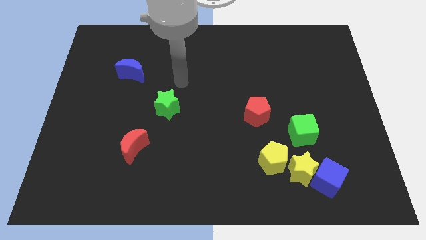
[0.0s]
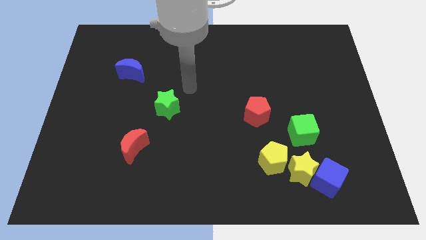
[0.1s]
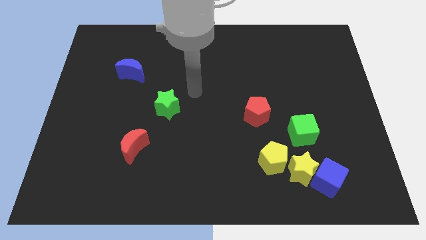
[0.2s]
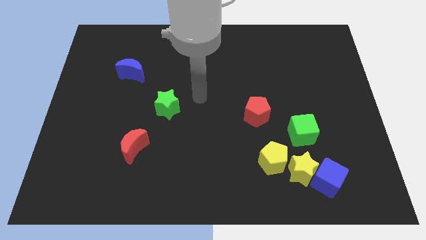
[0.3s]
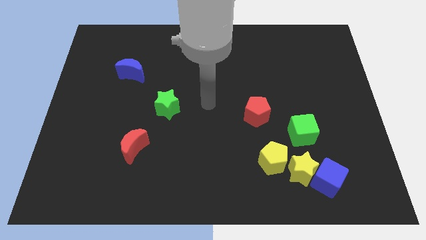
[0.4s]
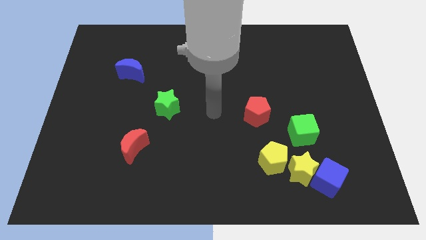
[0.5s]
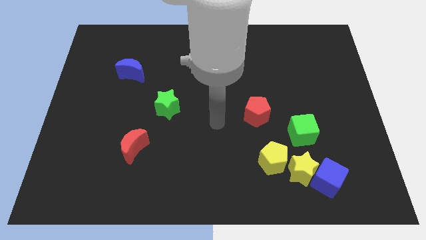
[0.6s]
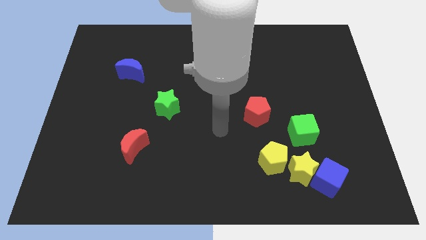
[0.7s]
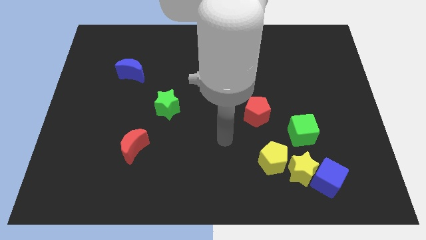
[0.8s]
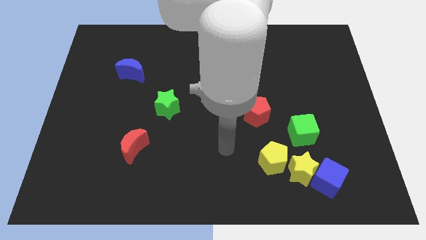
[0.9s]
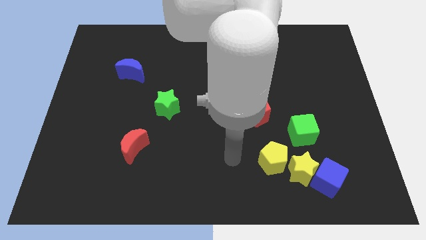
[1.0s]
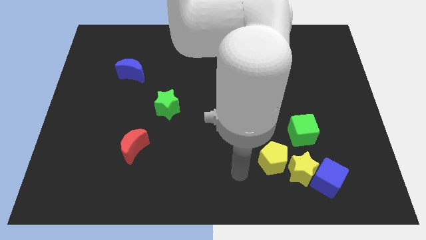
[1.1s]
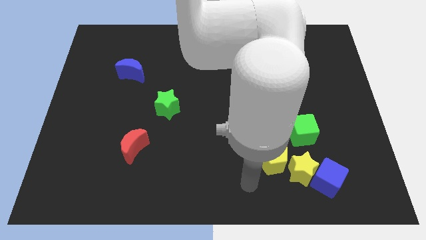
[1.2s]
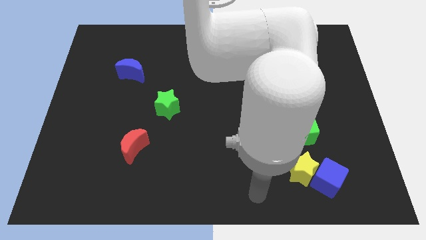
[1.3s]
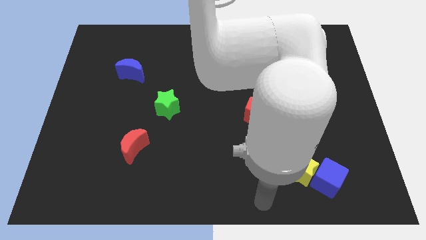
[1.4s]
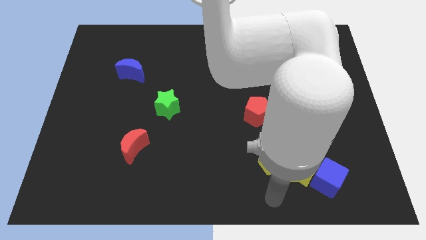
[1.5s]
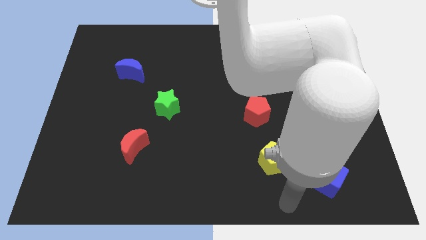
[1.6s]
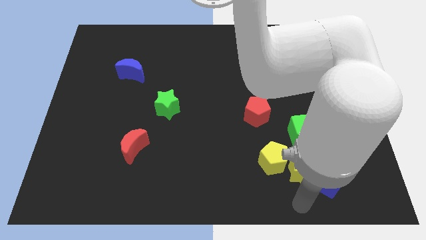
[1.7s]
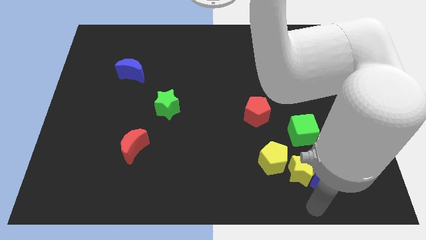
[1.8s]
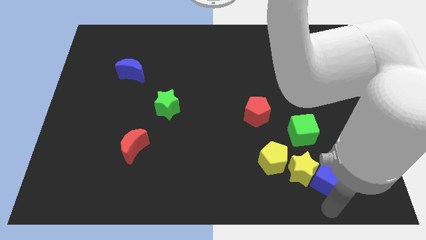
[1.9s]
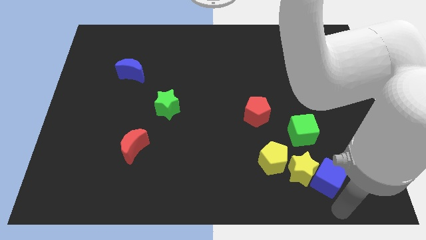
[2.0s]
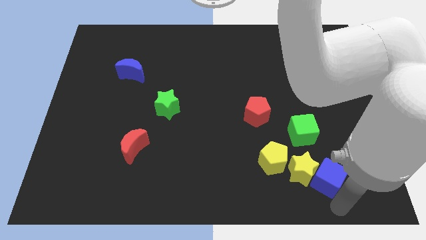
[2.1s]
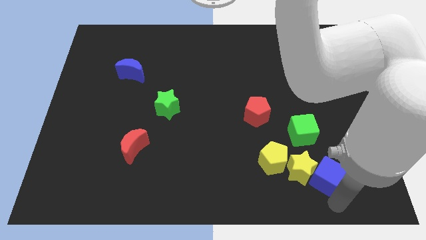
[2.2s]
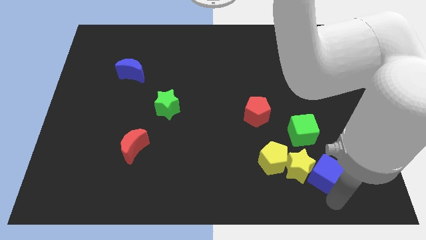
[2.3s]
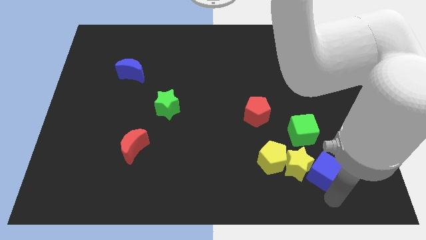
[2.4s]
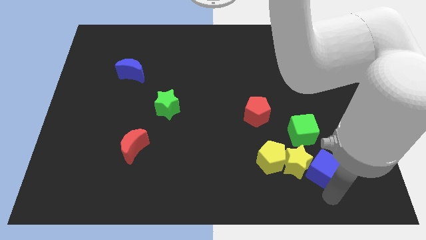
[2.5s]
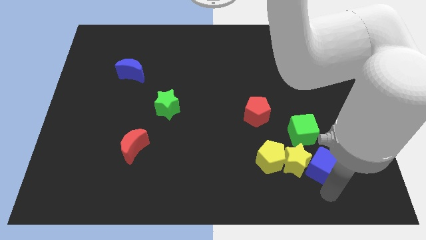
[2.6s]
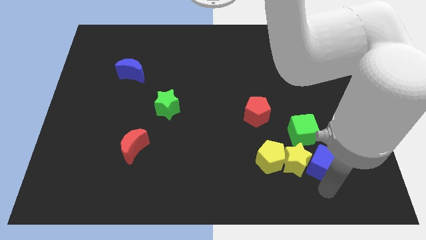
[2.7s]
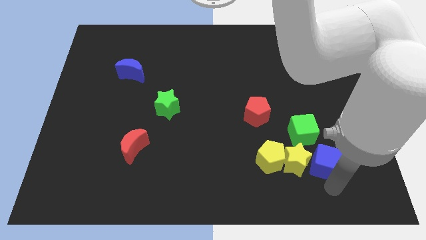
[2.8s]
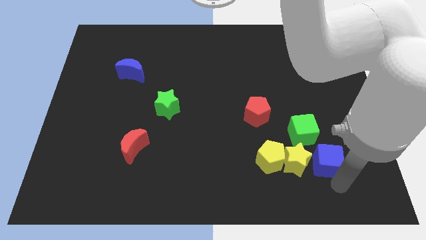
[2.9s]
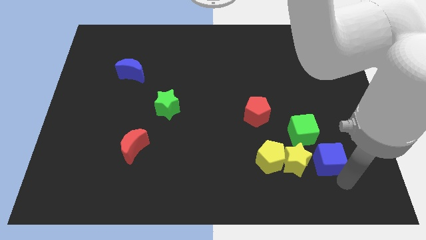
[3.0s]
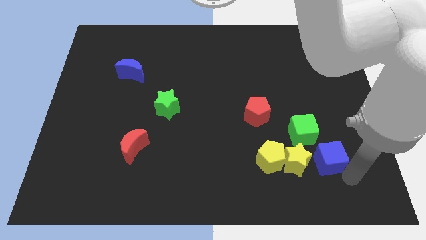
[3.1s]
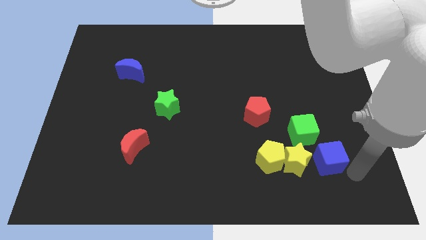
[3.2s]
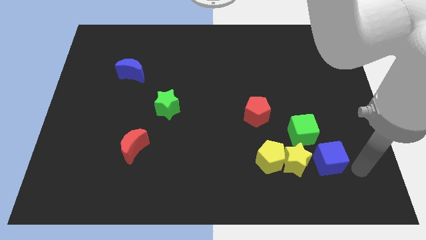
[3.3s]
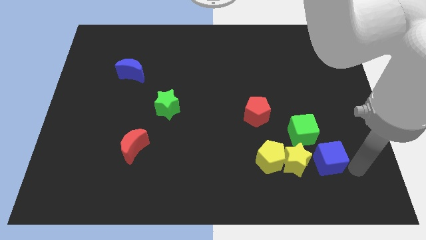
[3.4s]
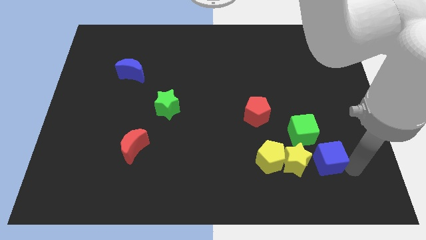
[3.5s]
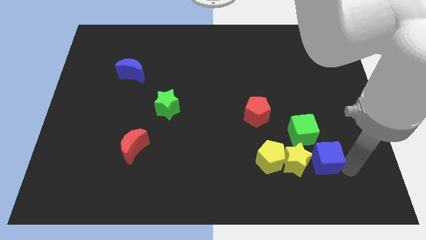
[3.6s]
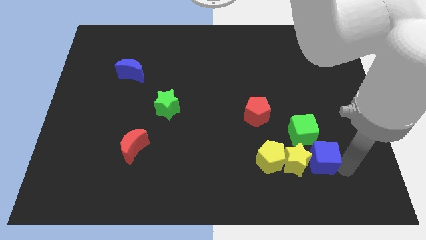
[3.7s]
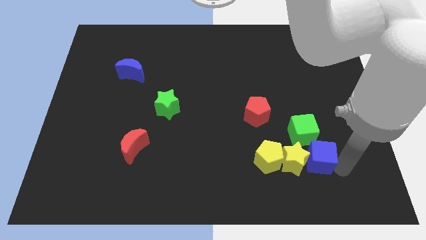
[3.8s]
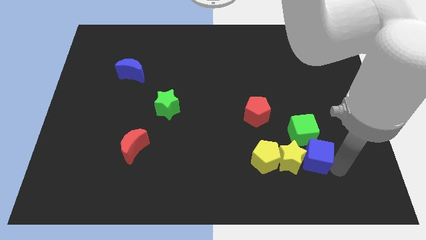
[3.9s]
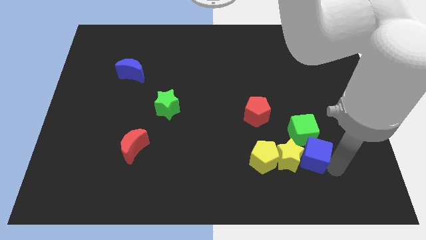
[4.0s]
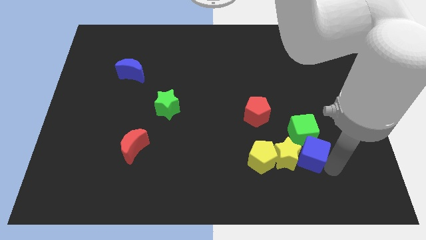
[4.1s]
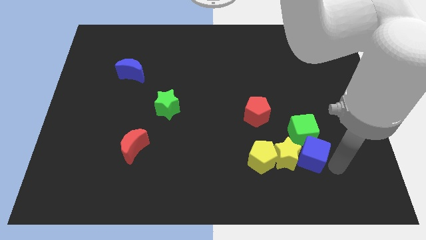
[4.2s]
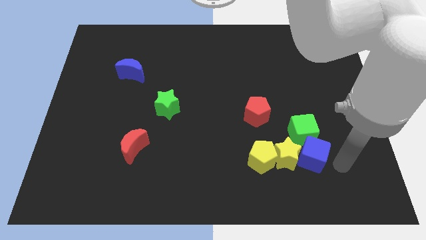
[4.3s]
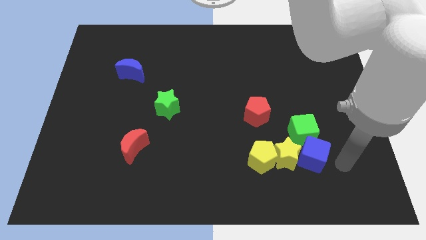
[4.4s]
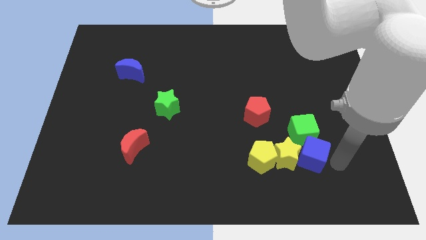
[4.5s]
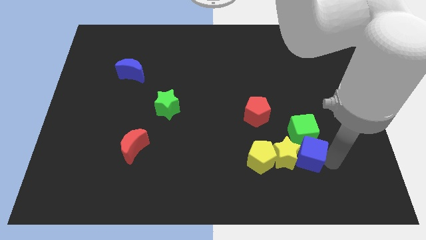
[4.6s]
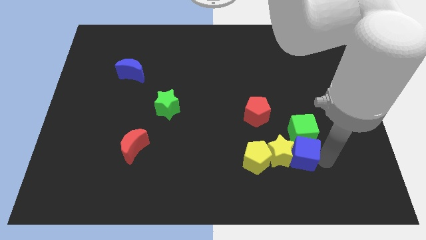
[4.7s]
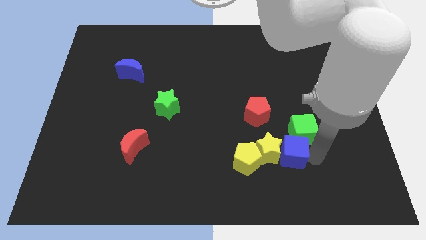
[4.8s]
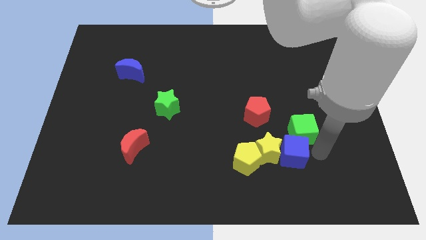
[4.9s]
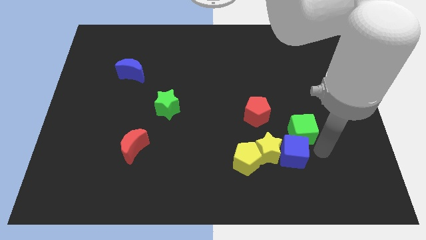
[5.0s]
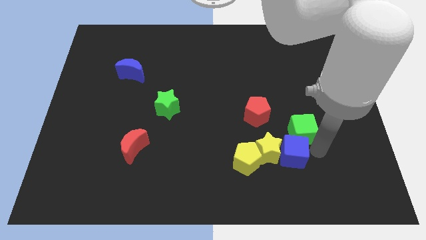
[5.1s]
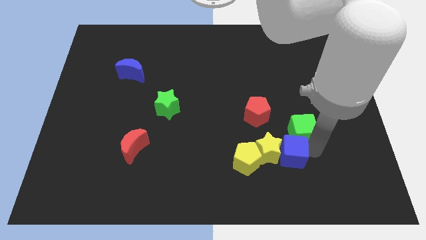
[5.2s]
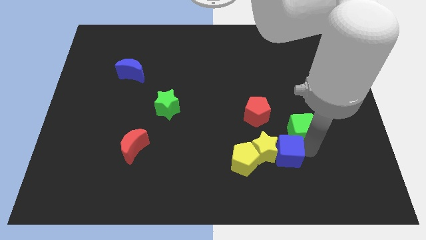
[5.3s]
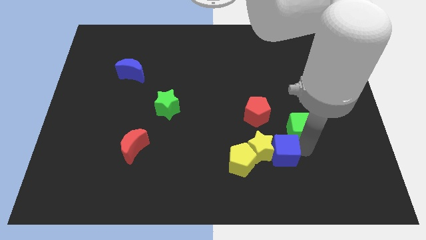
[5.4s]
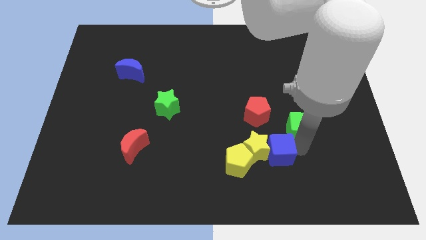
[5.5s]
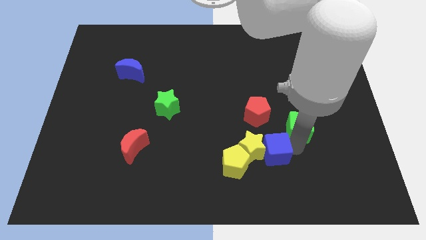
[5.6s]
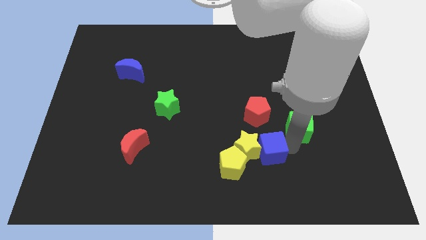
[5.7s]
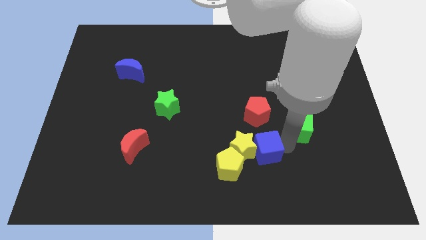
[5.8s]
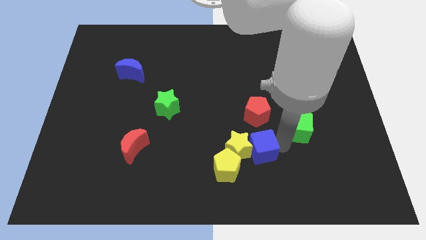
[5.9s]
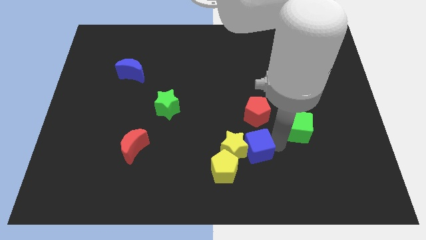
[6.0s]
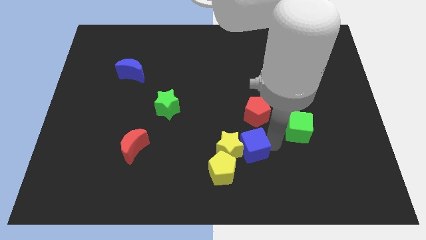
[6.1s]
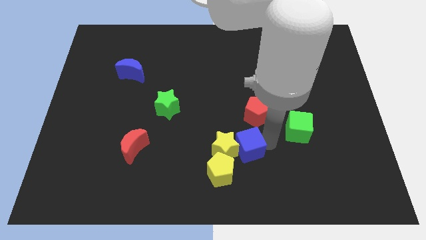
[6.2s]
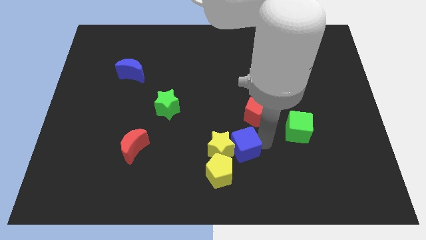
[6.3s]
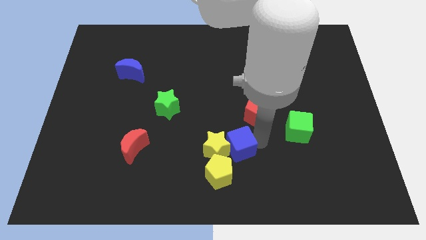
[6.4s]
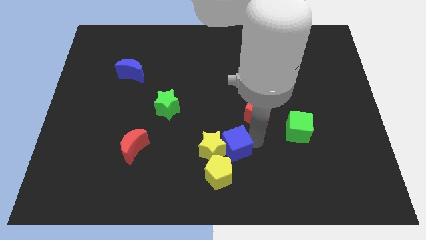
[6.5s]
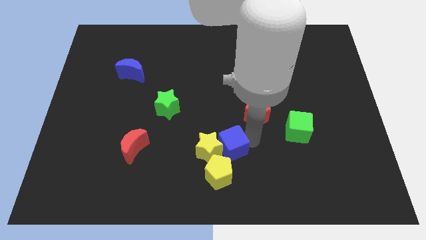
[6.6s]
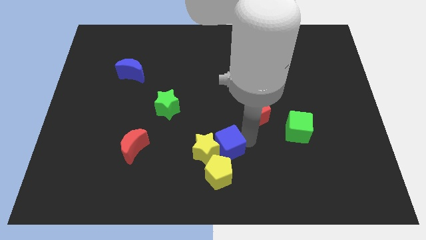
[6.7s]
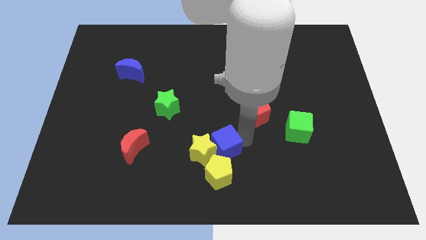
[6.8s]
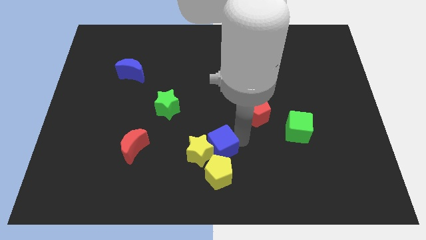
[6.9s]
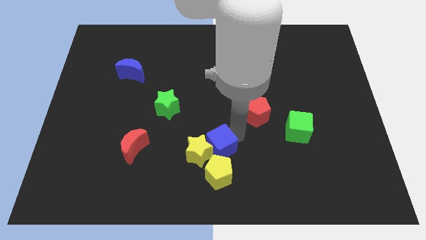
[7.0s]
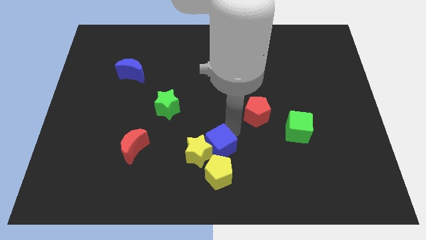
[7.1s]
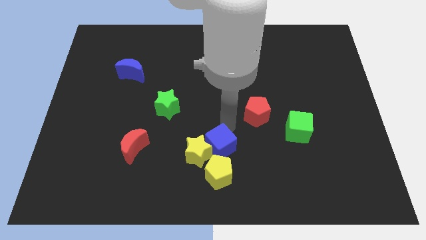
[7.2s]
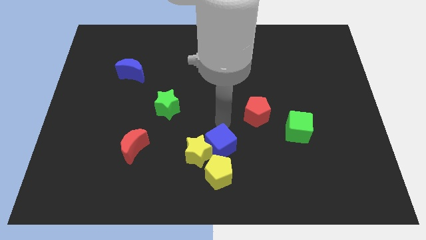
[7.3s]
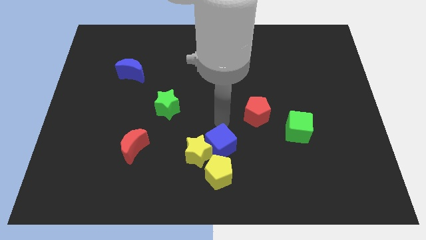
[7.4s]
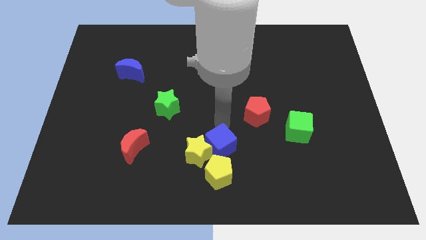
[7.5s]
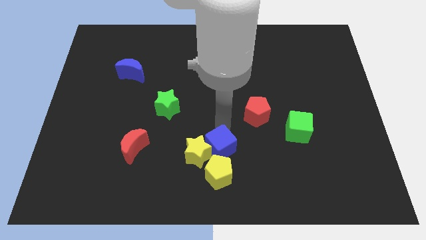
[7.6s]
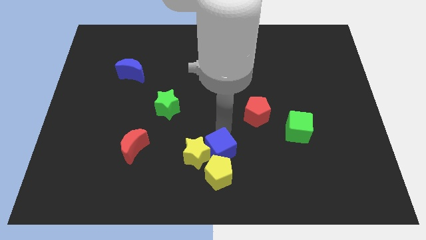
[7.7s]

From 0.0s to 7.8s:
put the blue cube towards the yellow pentagon
